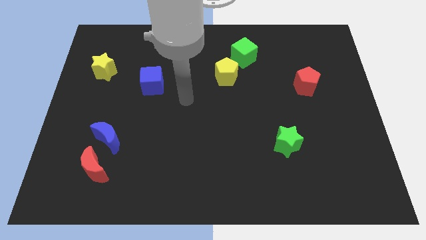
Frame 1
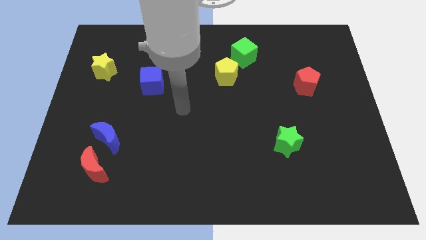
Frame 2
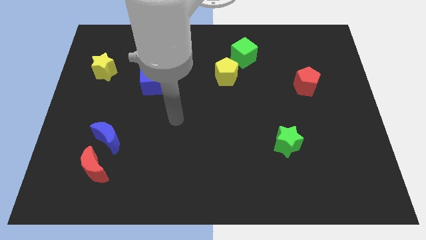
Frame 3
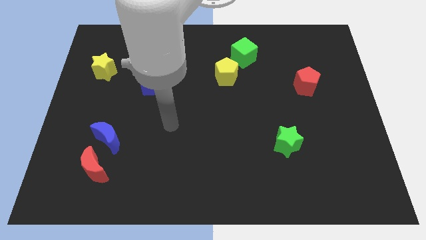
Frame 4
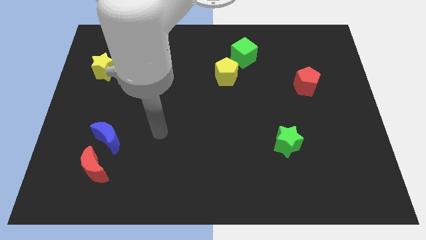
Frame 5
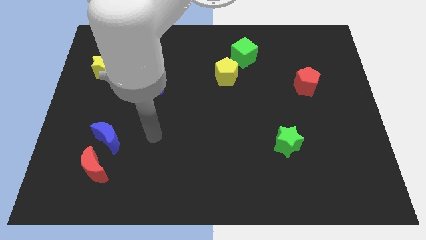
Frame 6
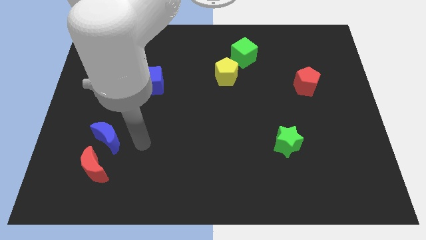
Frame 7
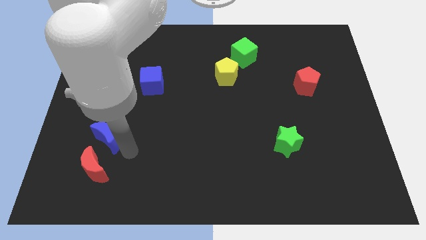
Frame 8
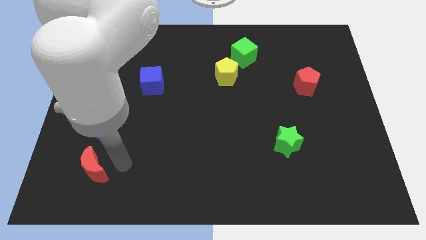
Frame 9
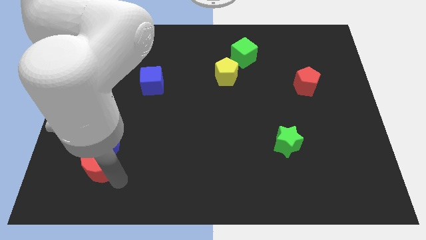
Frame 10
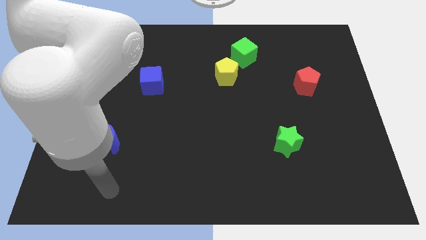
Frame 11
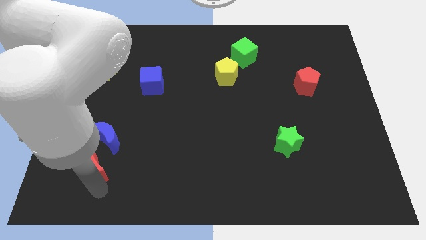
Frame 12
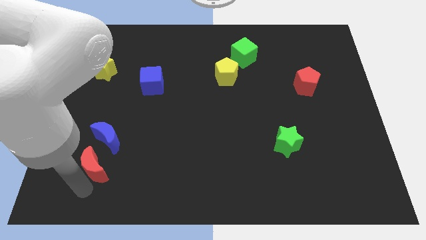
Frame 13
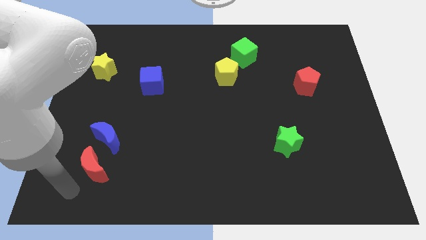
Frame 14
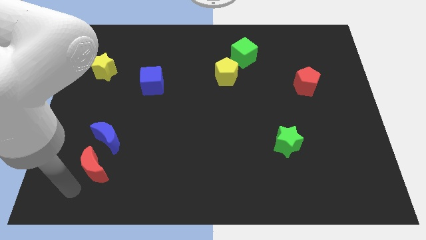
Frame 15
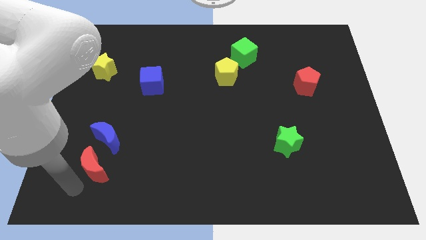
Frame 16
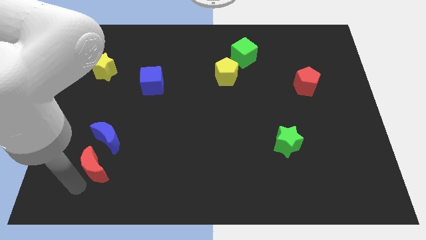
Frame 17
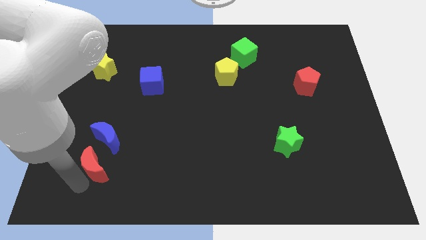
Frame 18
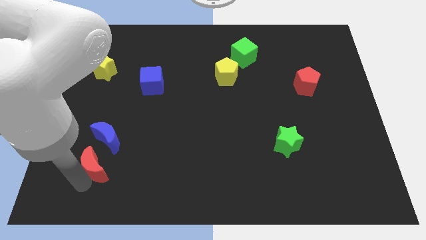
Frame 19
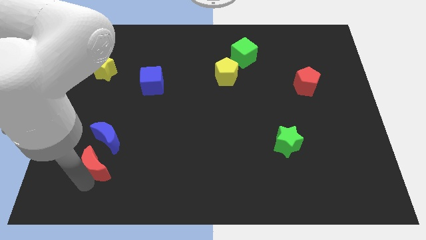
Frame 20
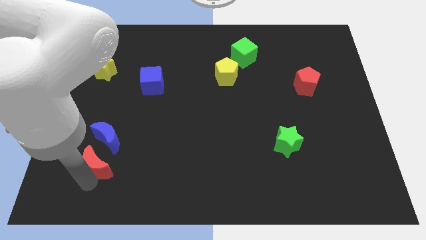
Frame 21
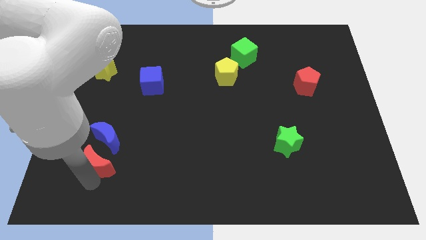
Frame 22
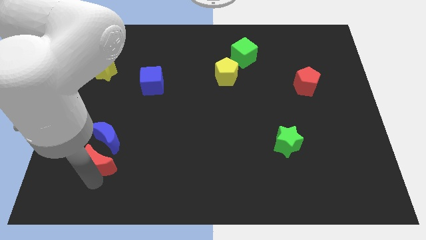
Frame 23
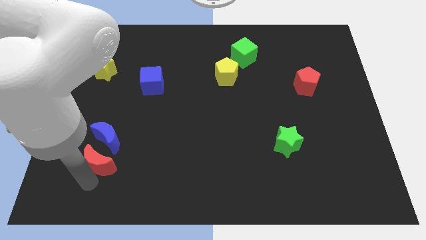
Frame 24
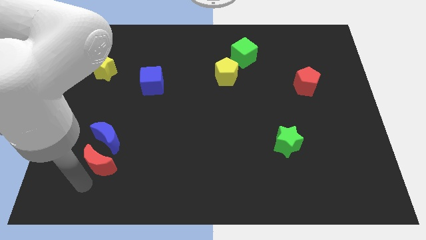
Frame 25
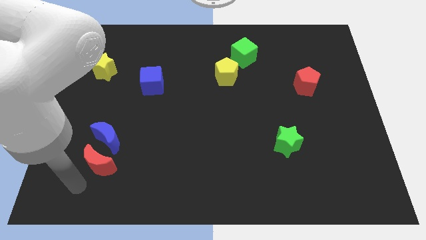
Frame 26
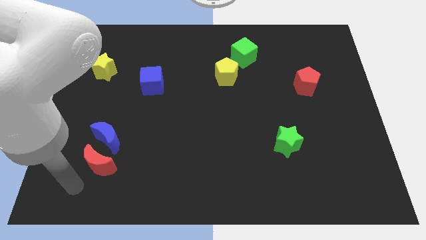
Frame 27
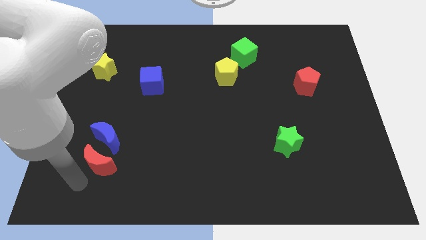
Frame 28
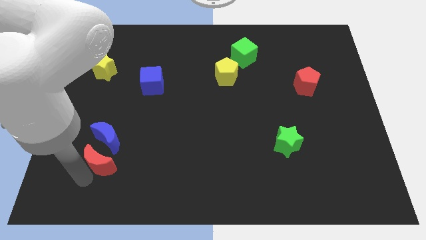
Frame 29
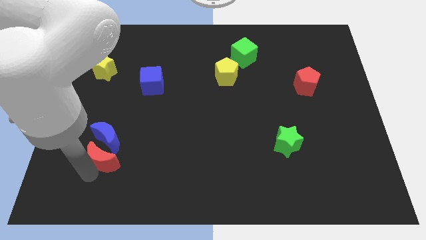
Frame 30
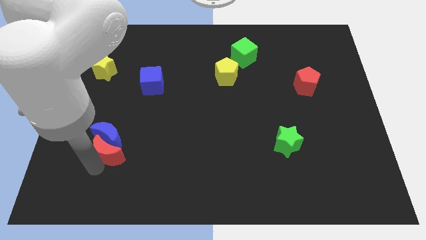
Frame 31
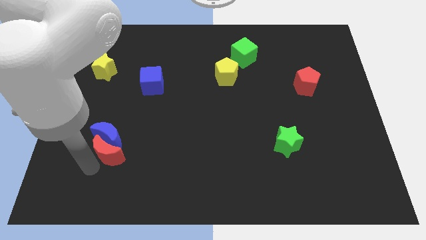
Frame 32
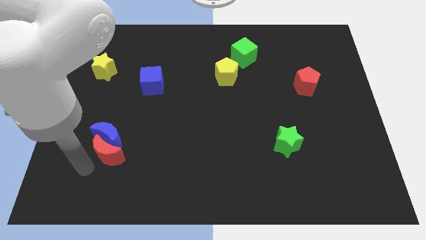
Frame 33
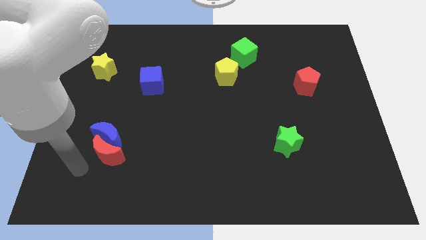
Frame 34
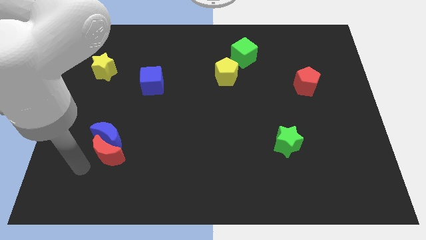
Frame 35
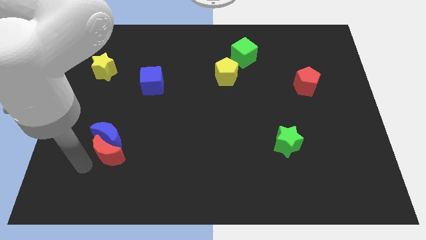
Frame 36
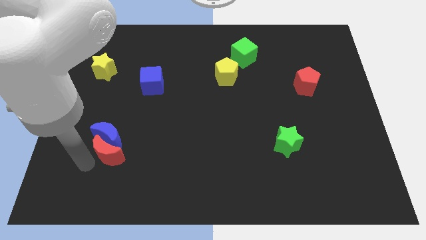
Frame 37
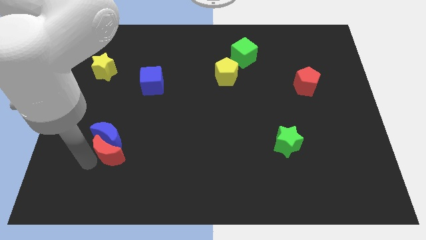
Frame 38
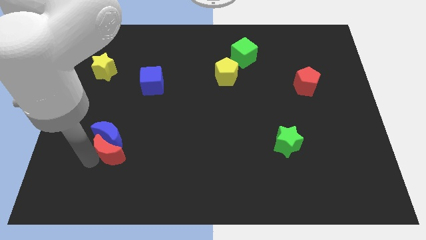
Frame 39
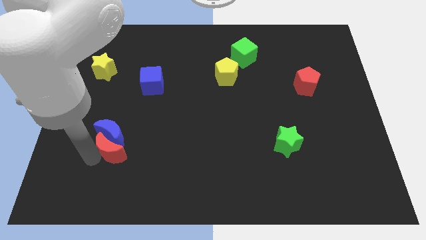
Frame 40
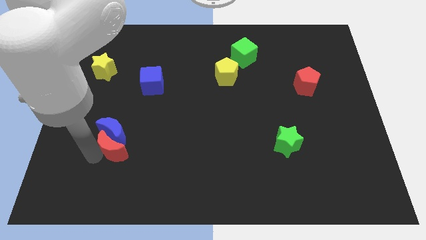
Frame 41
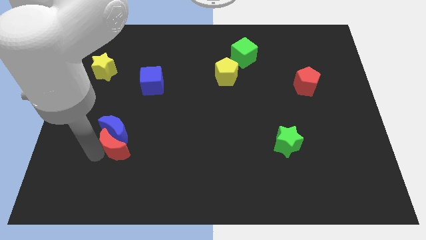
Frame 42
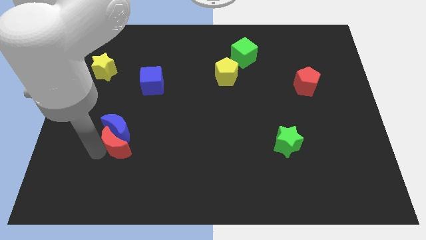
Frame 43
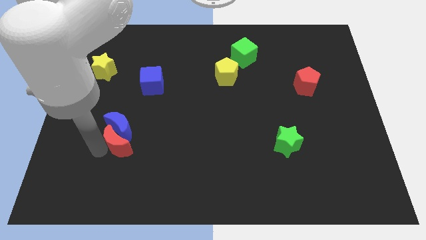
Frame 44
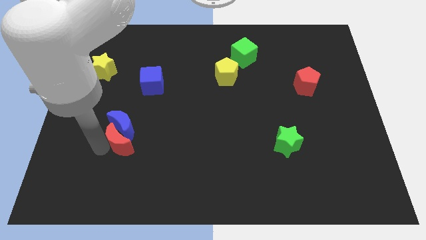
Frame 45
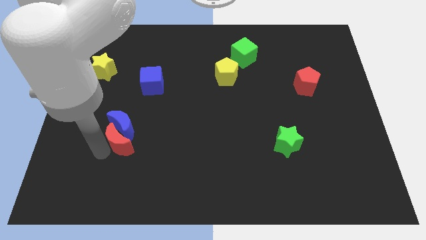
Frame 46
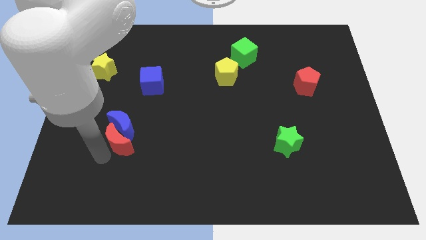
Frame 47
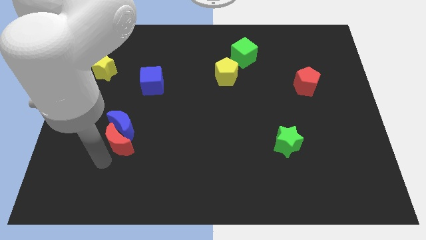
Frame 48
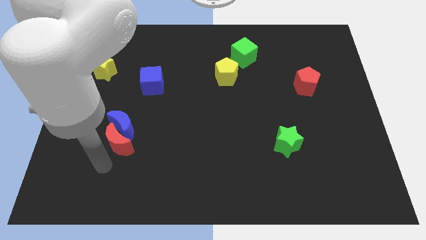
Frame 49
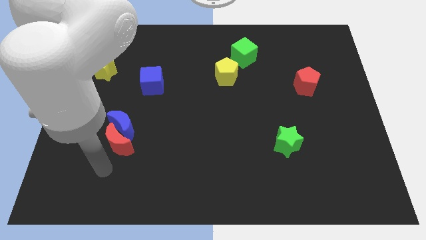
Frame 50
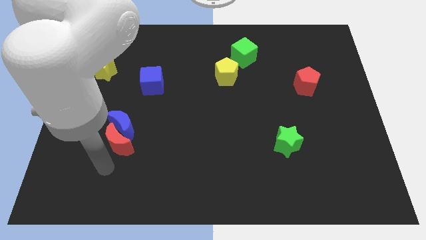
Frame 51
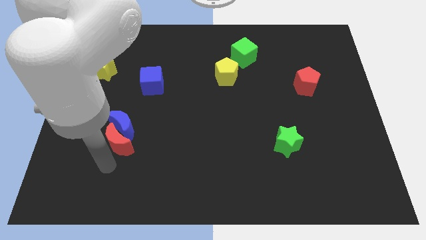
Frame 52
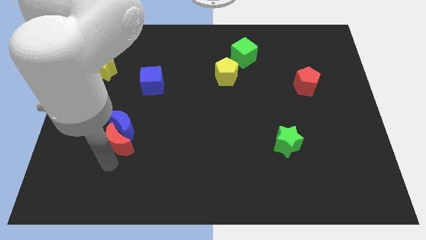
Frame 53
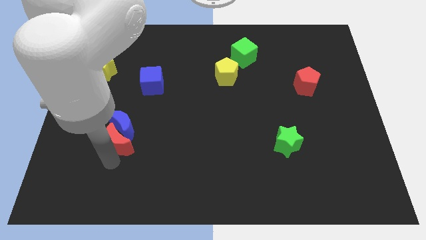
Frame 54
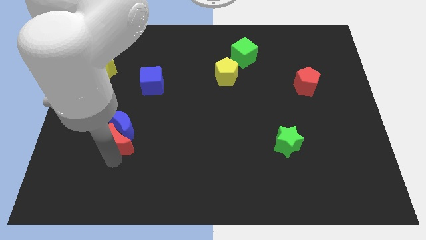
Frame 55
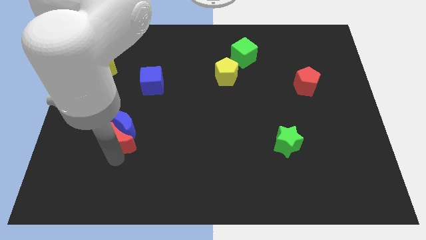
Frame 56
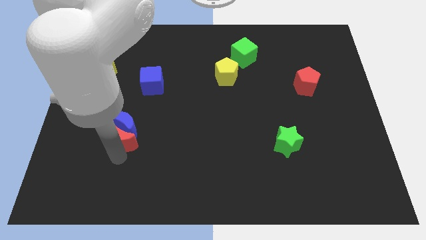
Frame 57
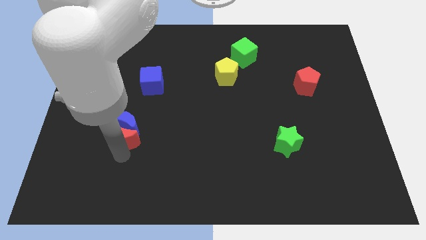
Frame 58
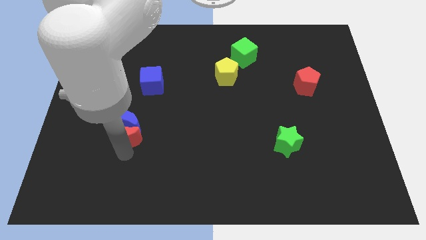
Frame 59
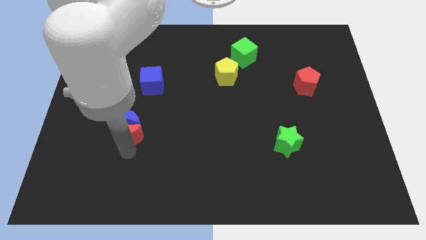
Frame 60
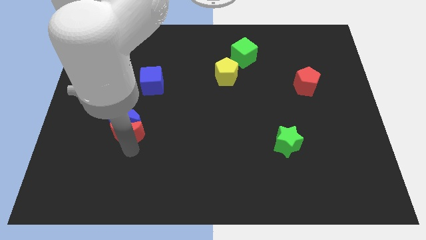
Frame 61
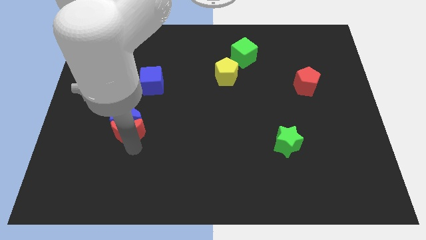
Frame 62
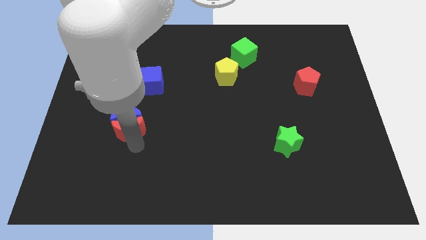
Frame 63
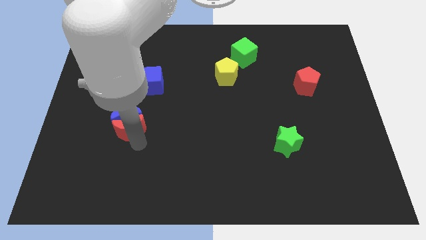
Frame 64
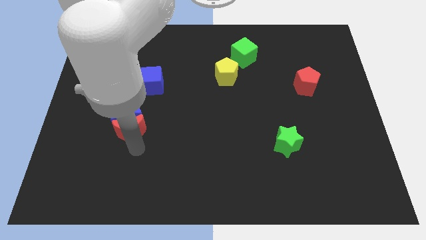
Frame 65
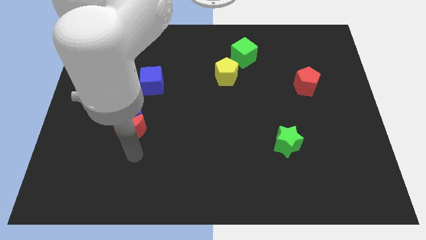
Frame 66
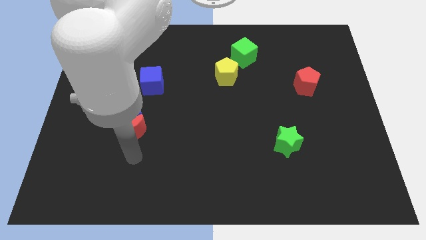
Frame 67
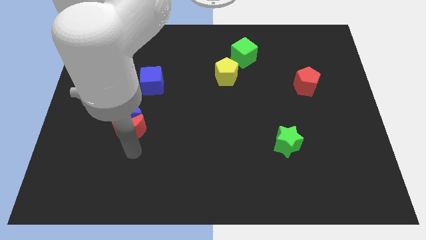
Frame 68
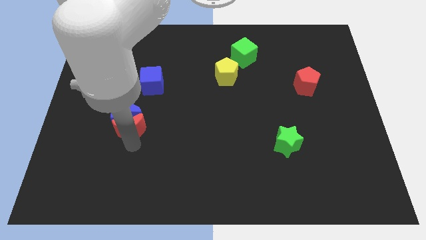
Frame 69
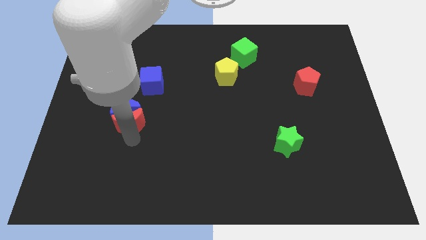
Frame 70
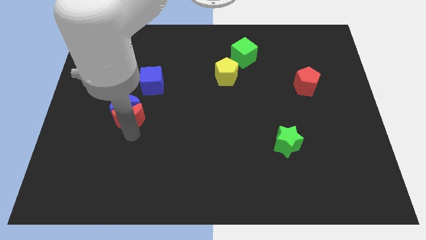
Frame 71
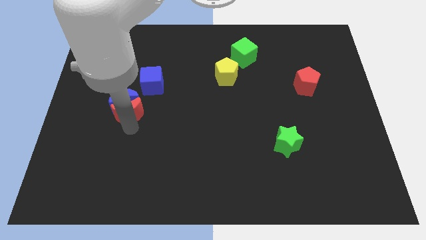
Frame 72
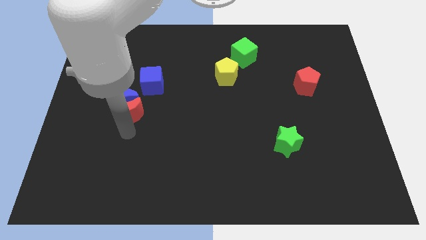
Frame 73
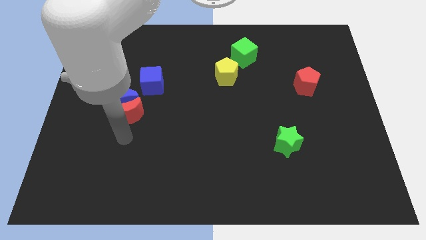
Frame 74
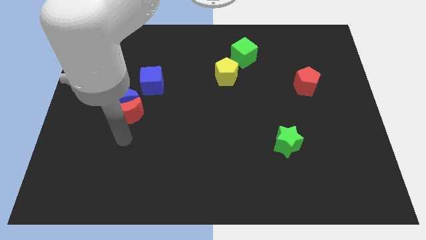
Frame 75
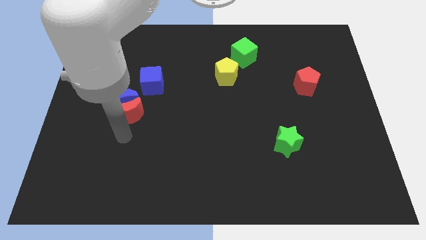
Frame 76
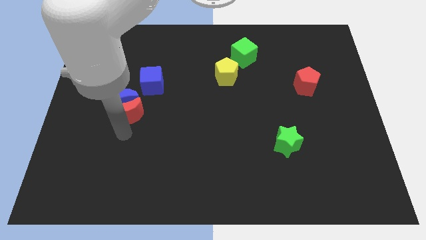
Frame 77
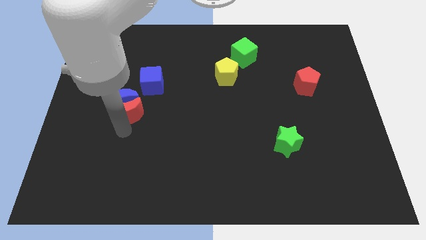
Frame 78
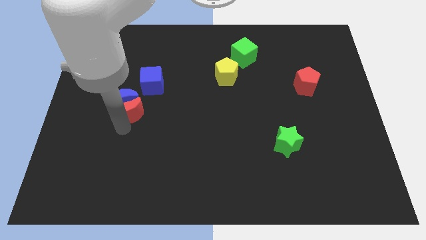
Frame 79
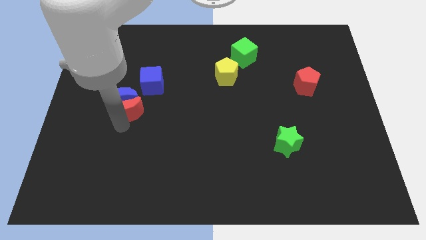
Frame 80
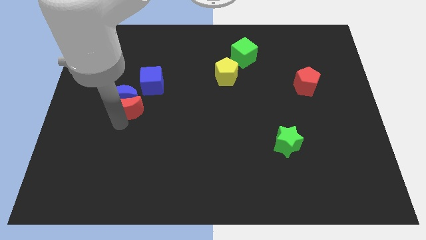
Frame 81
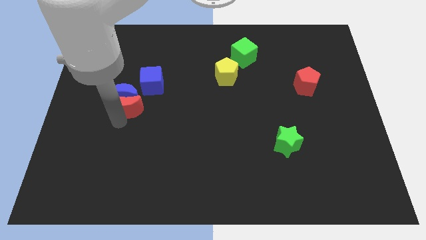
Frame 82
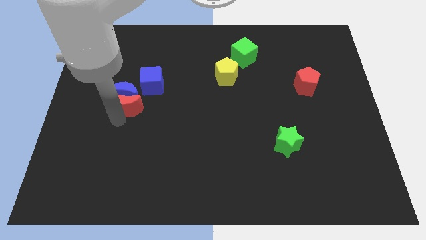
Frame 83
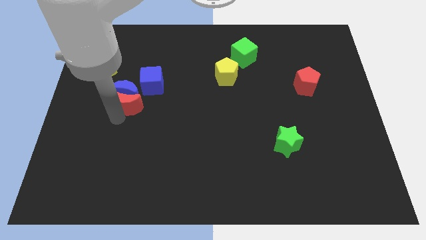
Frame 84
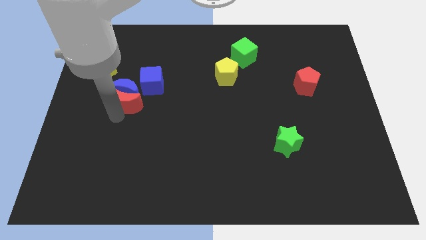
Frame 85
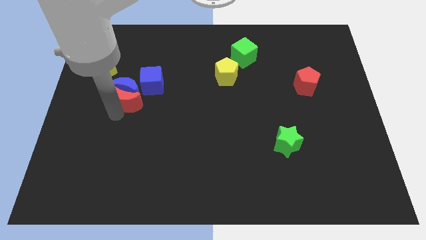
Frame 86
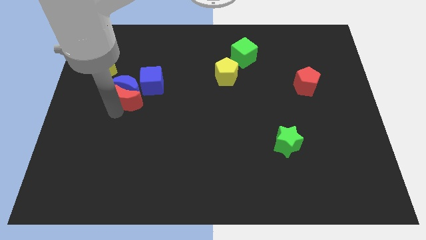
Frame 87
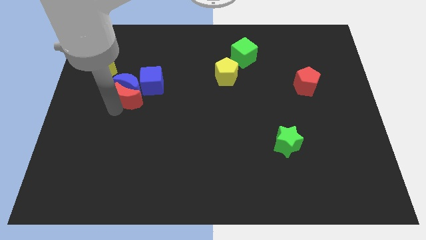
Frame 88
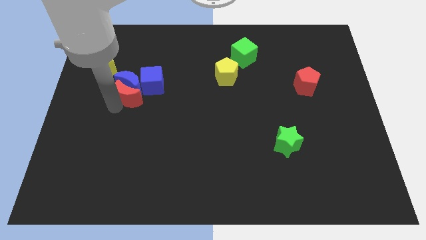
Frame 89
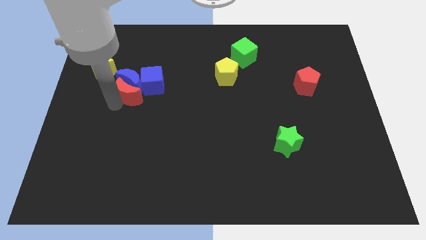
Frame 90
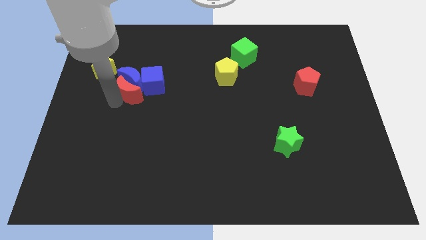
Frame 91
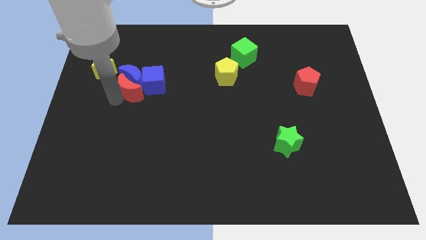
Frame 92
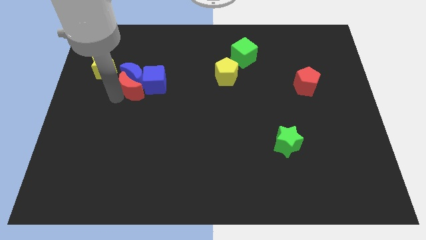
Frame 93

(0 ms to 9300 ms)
move the red moon next to the blue cube
